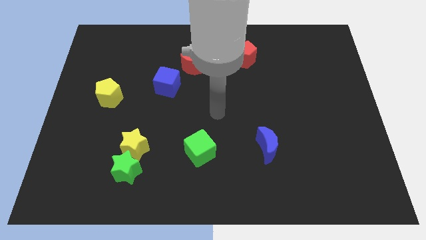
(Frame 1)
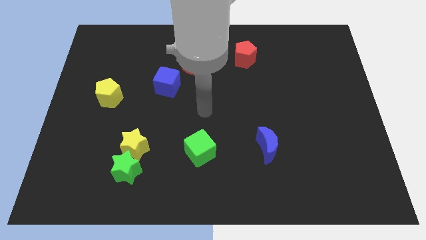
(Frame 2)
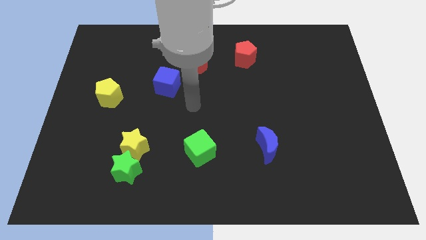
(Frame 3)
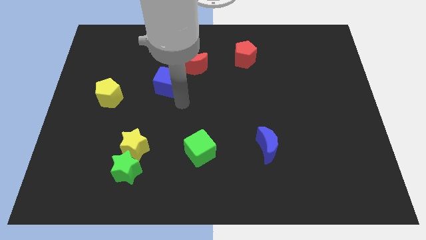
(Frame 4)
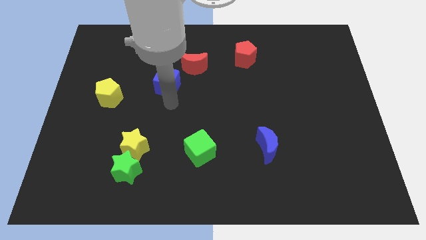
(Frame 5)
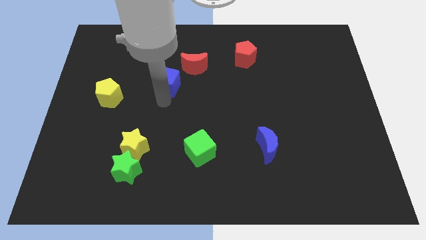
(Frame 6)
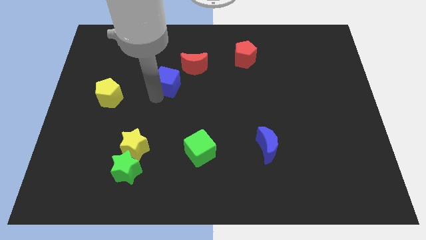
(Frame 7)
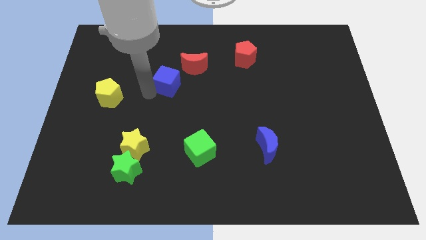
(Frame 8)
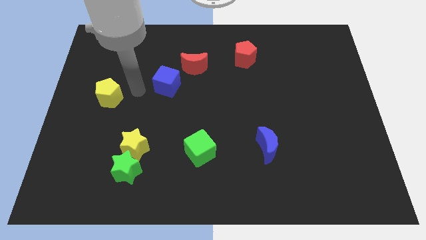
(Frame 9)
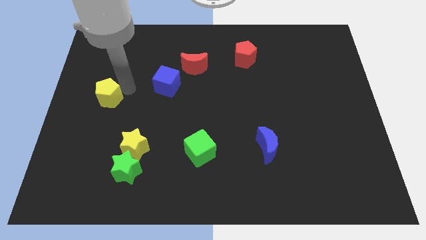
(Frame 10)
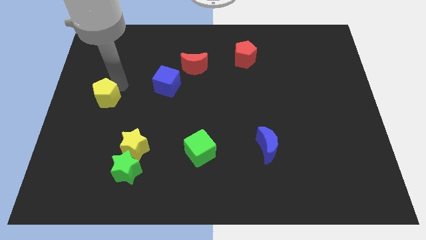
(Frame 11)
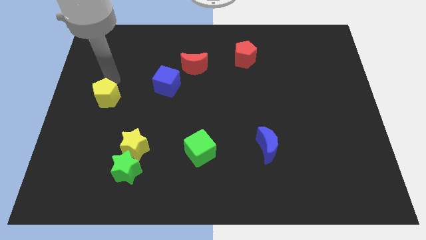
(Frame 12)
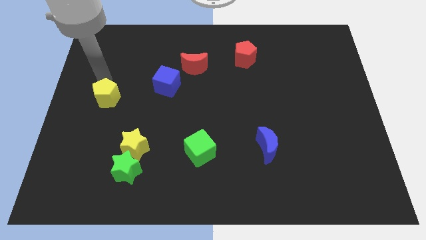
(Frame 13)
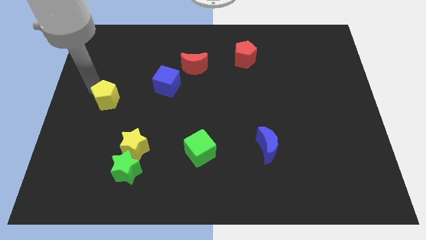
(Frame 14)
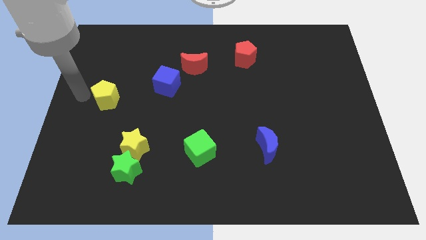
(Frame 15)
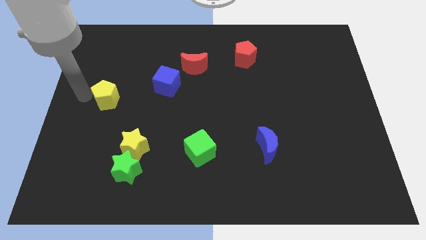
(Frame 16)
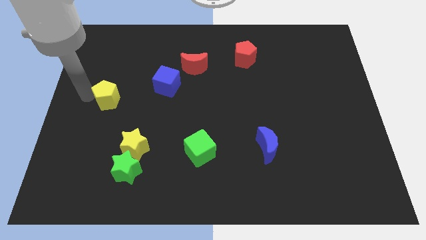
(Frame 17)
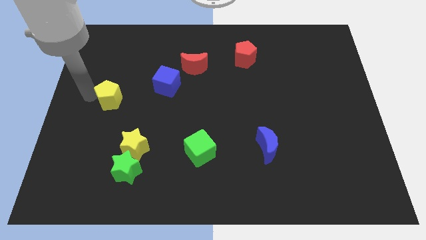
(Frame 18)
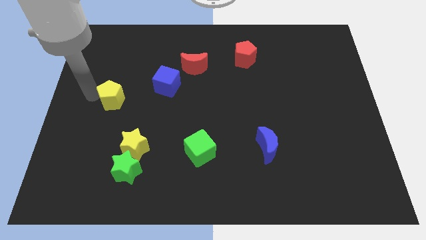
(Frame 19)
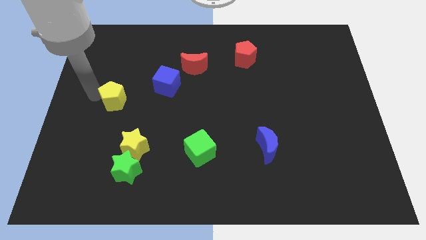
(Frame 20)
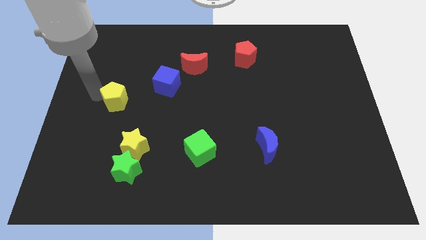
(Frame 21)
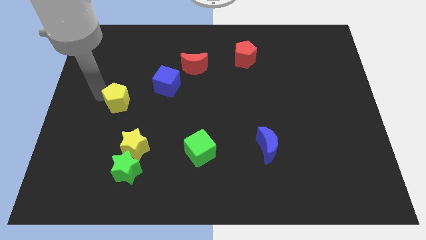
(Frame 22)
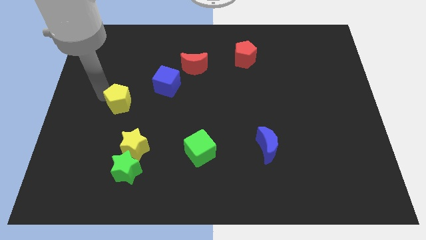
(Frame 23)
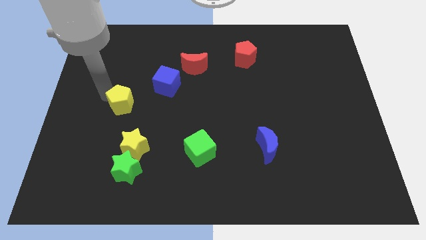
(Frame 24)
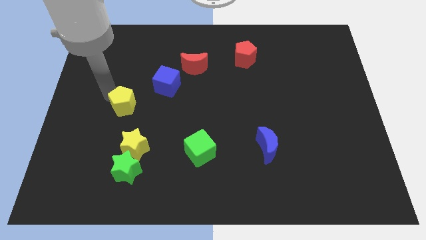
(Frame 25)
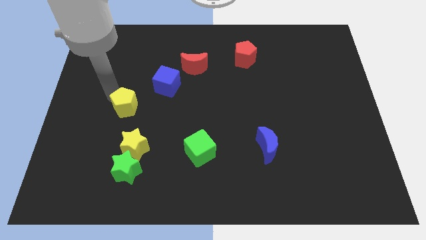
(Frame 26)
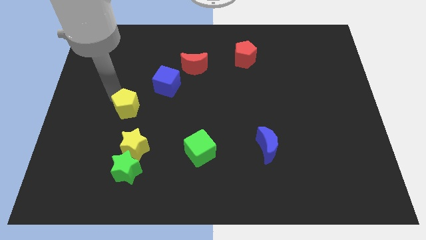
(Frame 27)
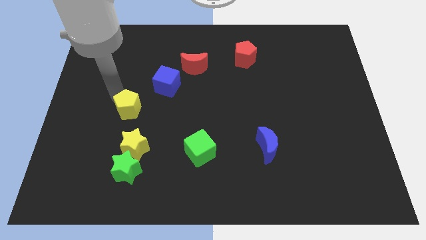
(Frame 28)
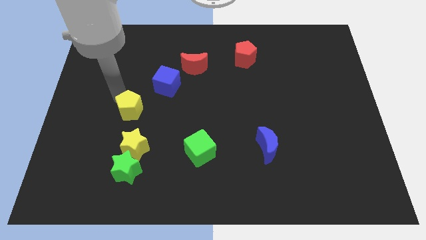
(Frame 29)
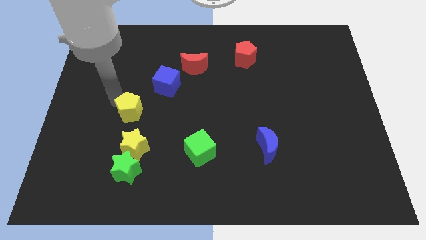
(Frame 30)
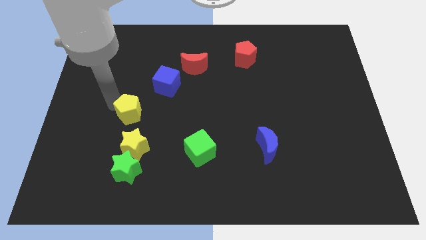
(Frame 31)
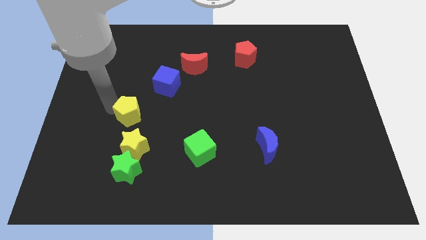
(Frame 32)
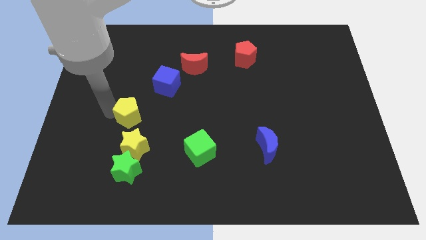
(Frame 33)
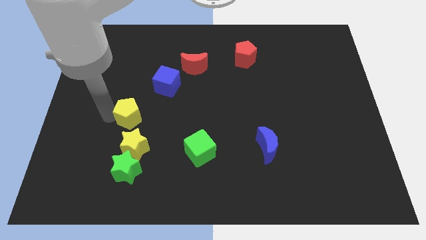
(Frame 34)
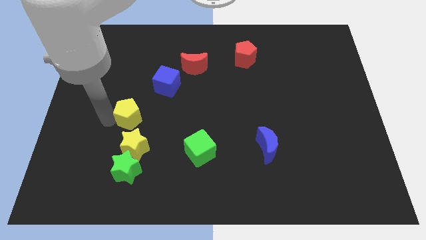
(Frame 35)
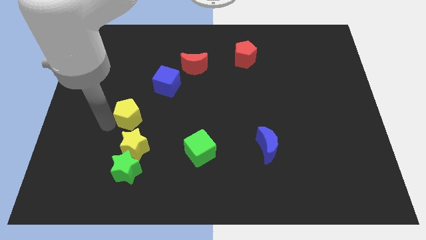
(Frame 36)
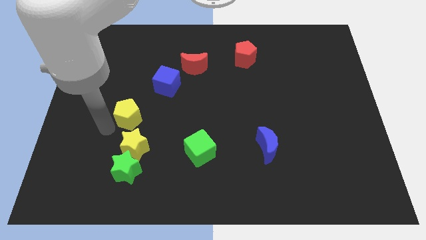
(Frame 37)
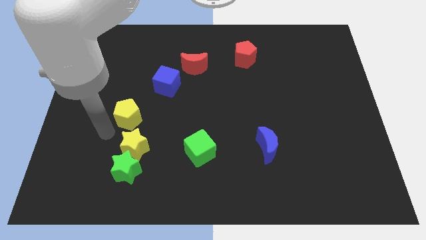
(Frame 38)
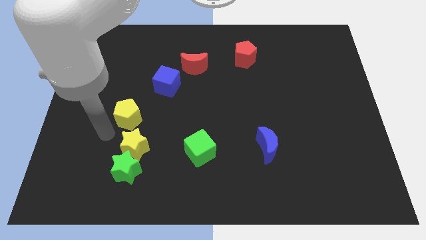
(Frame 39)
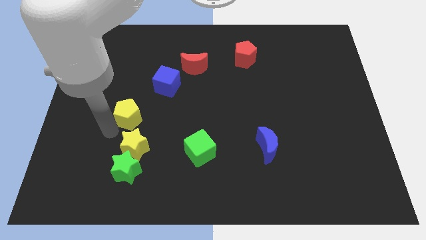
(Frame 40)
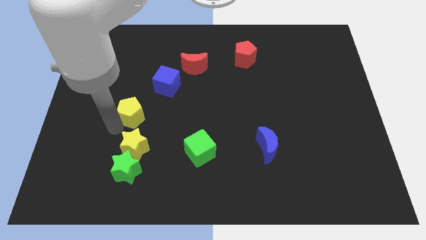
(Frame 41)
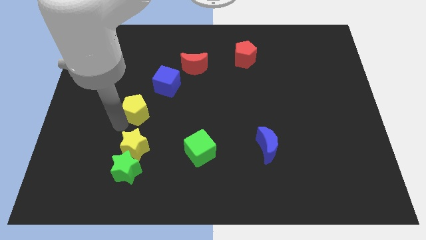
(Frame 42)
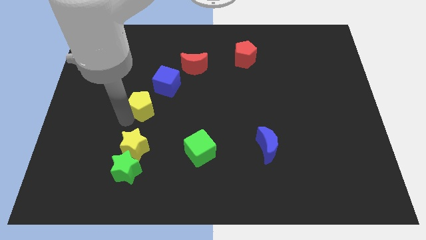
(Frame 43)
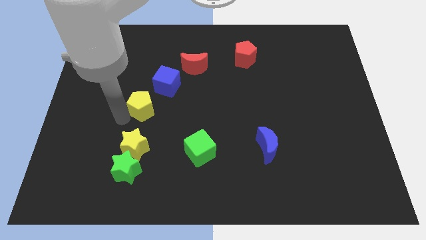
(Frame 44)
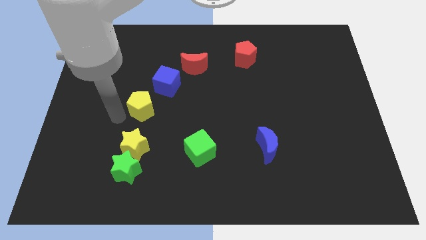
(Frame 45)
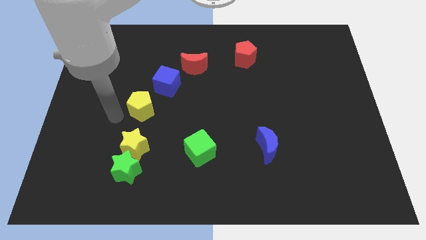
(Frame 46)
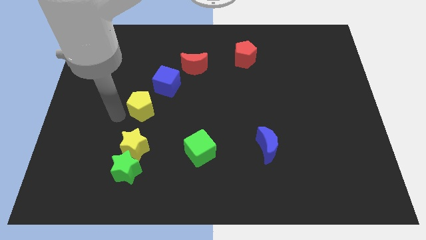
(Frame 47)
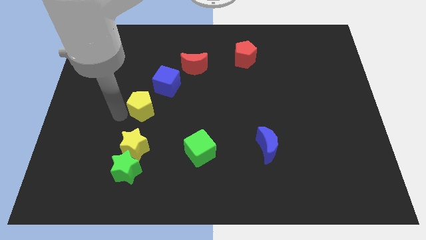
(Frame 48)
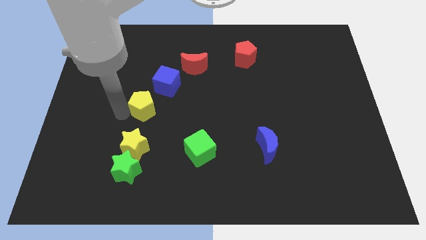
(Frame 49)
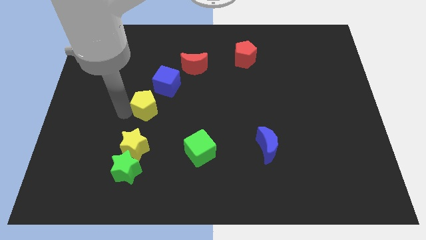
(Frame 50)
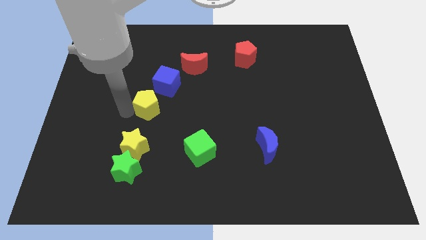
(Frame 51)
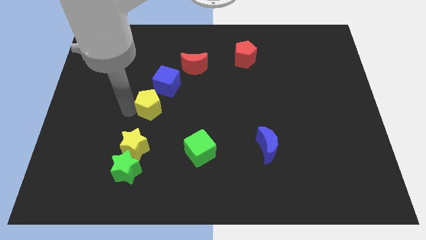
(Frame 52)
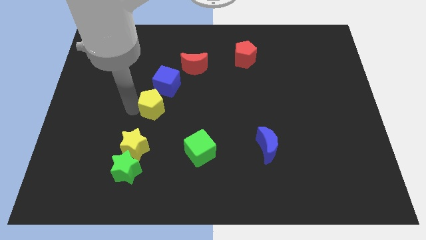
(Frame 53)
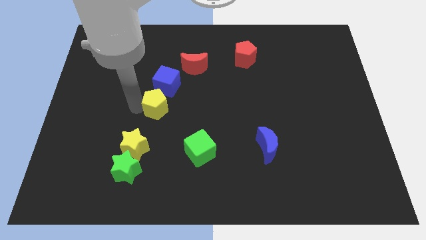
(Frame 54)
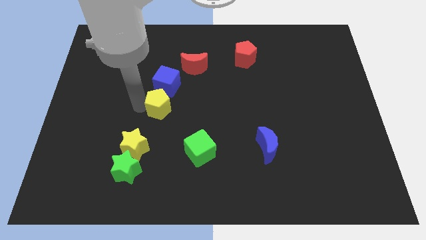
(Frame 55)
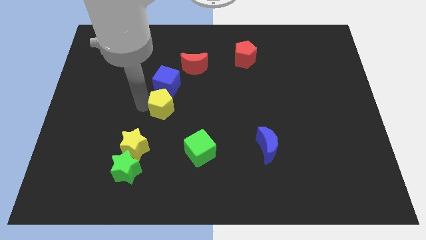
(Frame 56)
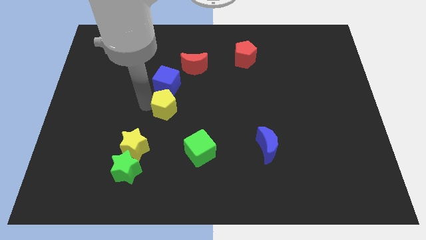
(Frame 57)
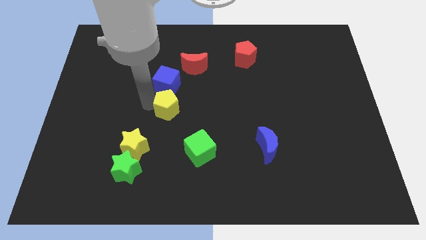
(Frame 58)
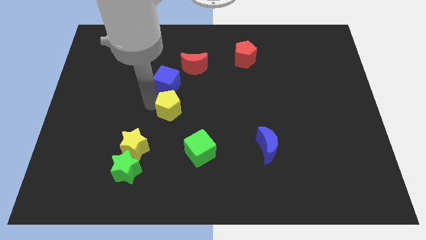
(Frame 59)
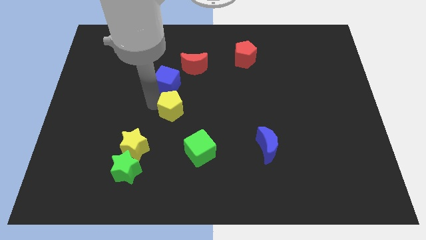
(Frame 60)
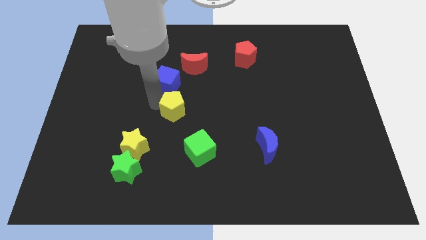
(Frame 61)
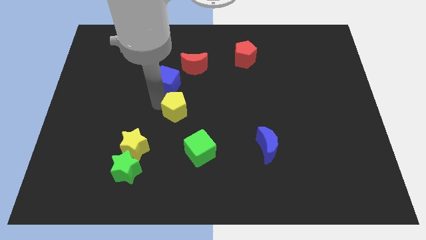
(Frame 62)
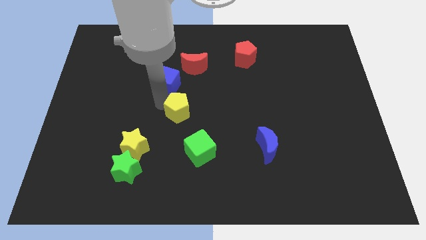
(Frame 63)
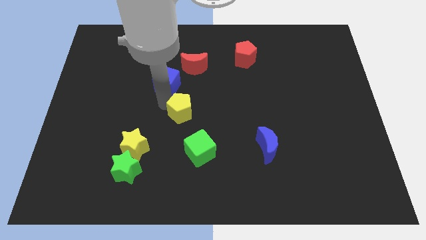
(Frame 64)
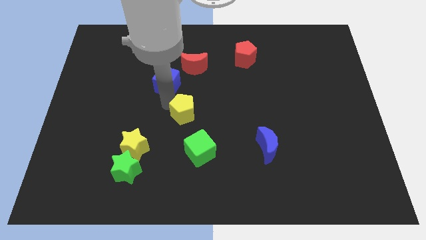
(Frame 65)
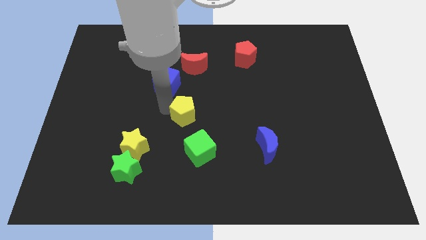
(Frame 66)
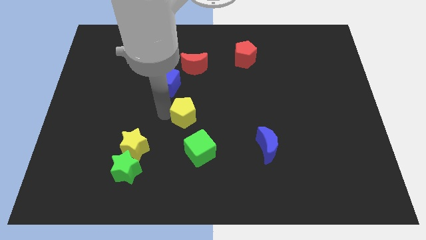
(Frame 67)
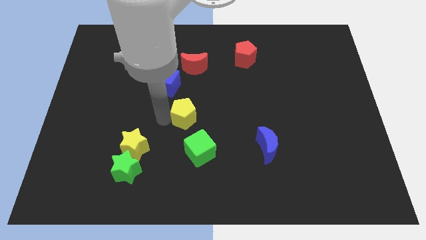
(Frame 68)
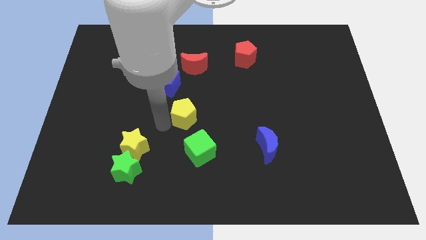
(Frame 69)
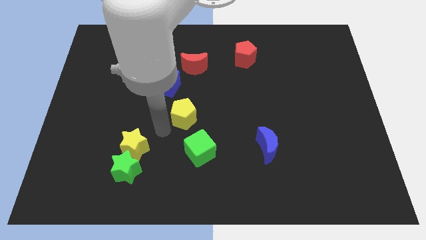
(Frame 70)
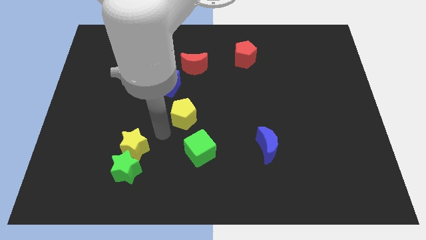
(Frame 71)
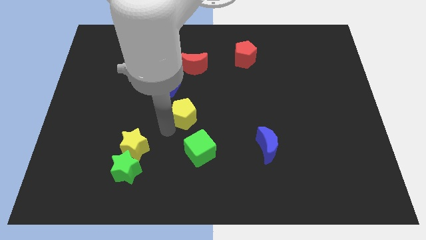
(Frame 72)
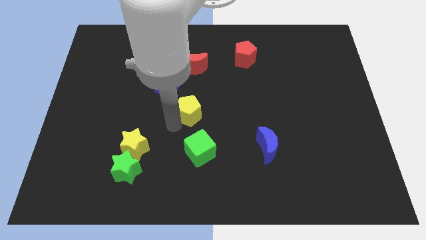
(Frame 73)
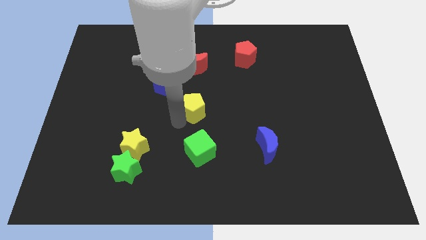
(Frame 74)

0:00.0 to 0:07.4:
slide the yellow pentagon right

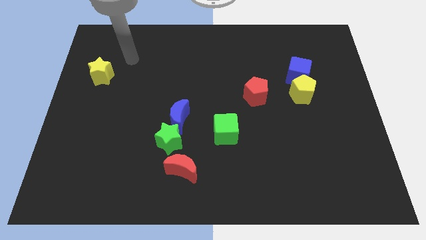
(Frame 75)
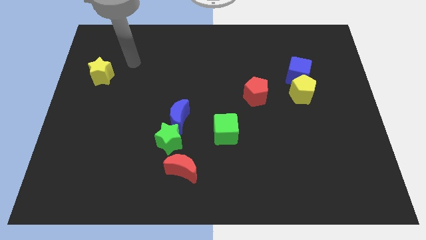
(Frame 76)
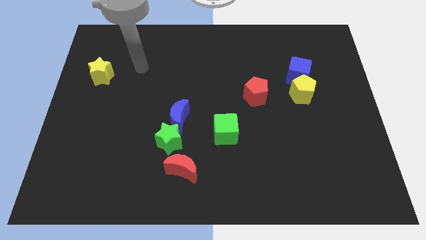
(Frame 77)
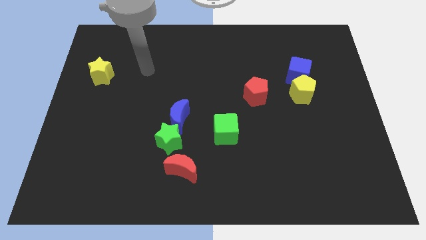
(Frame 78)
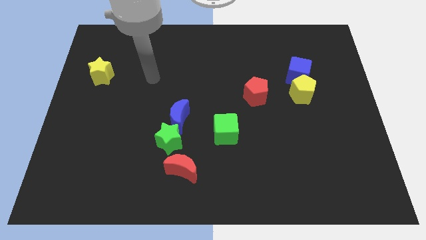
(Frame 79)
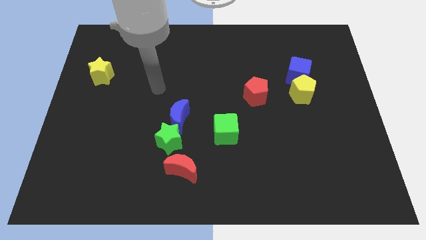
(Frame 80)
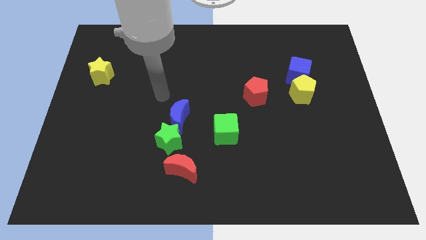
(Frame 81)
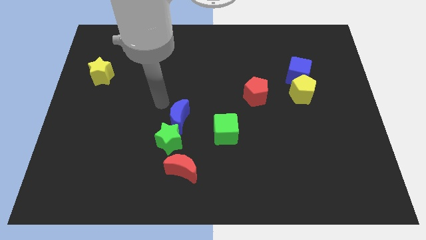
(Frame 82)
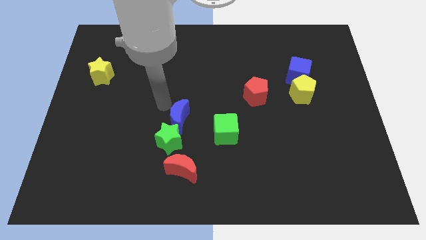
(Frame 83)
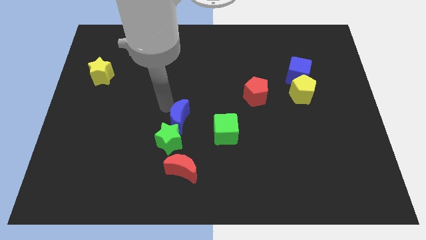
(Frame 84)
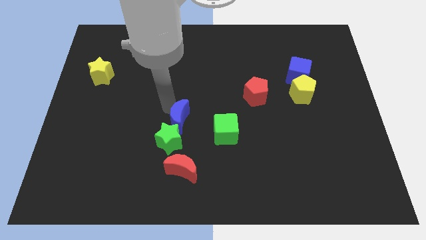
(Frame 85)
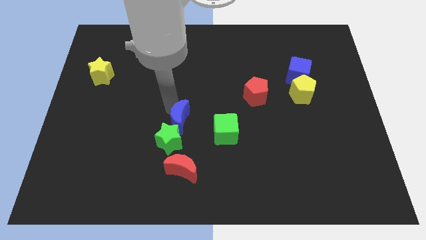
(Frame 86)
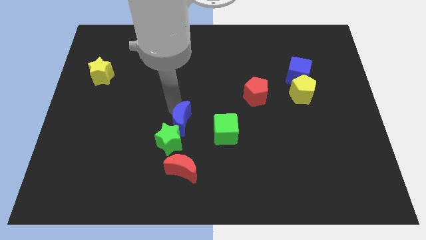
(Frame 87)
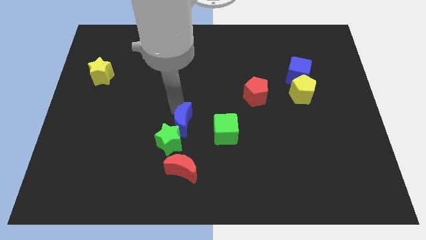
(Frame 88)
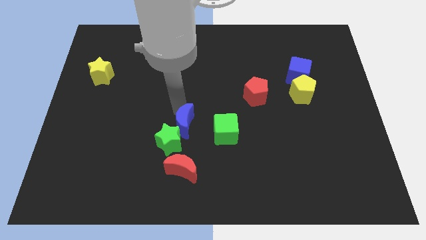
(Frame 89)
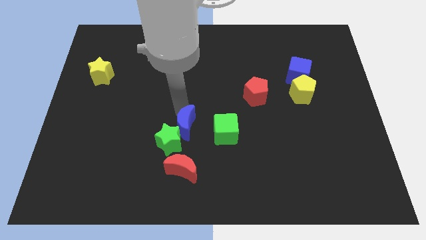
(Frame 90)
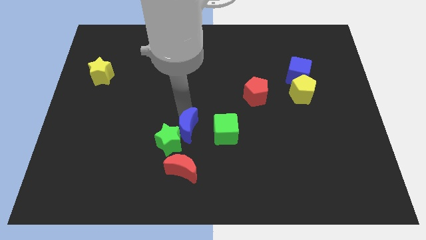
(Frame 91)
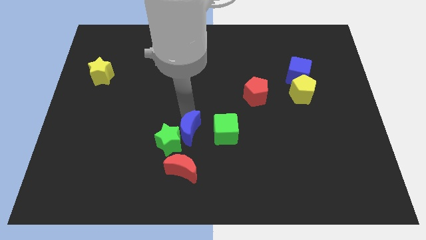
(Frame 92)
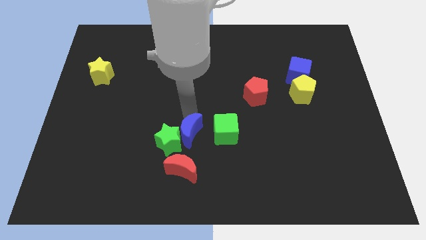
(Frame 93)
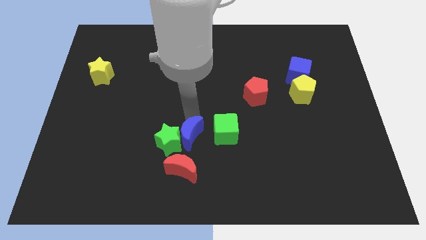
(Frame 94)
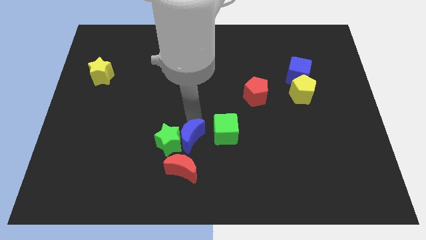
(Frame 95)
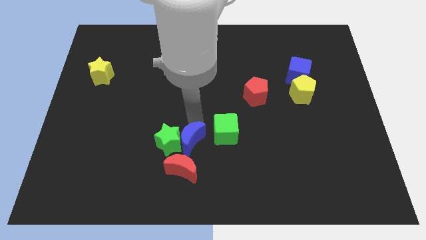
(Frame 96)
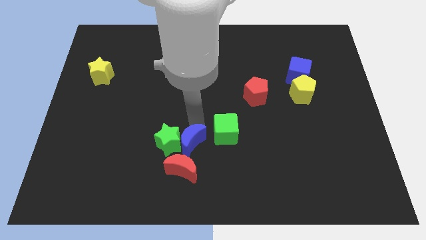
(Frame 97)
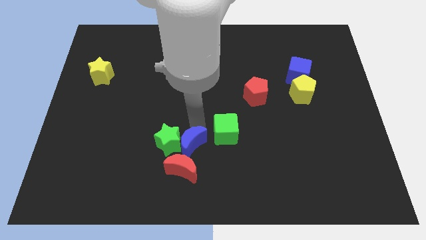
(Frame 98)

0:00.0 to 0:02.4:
move the blue moon down and to the right a bit
